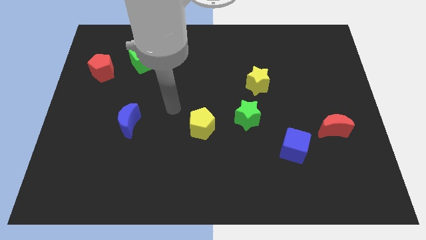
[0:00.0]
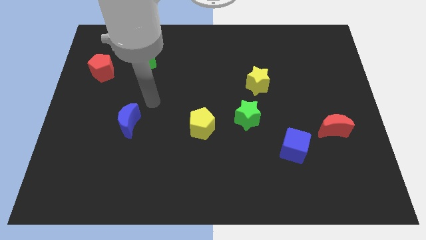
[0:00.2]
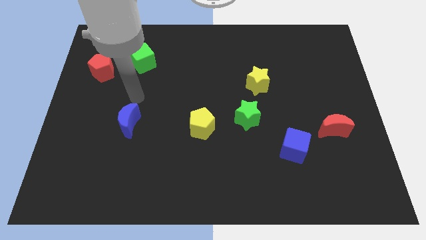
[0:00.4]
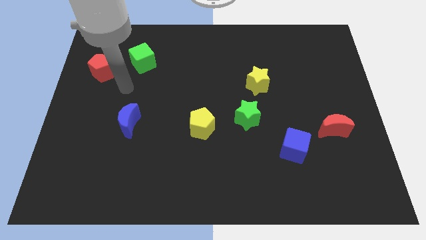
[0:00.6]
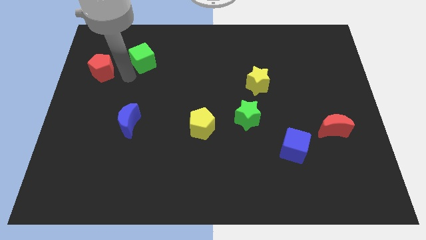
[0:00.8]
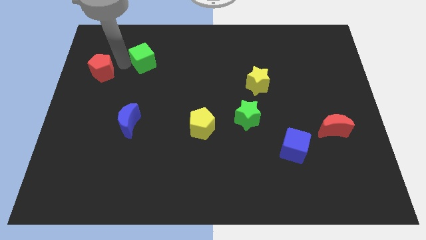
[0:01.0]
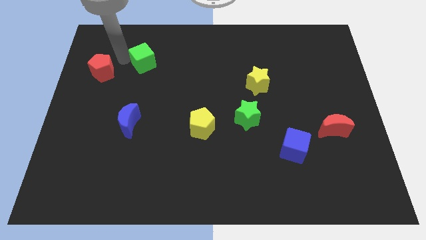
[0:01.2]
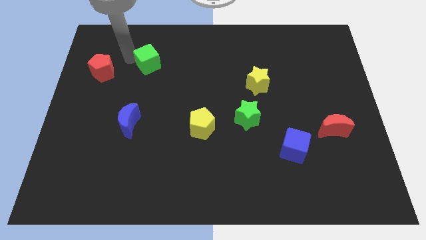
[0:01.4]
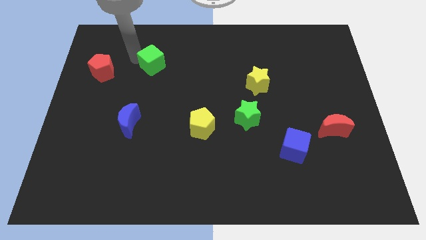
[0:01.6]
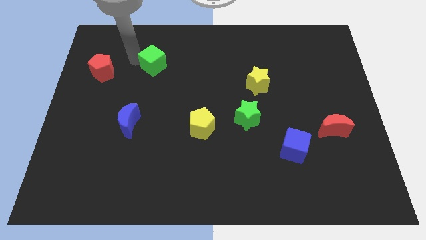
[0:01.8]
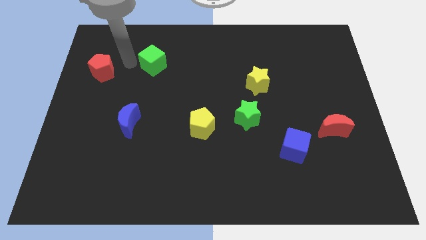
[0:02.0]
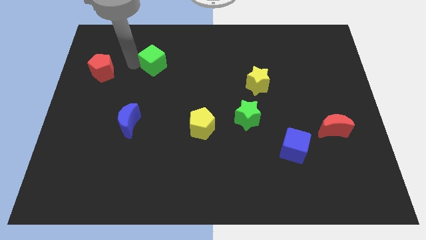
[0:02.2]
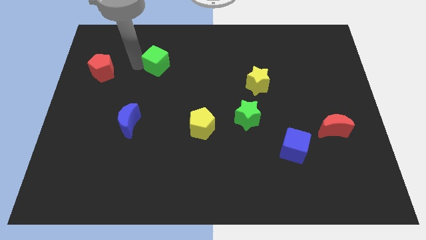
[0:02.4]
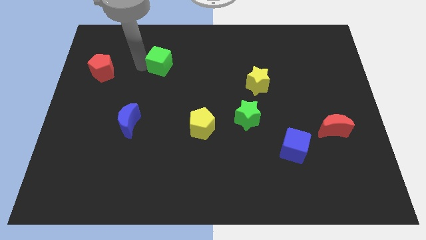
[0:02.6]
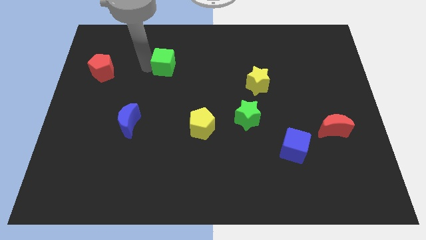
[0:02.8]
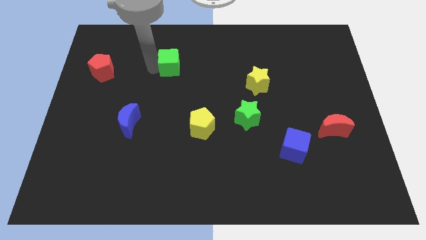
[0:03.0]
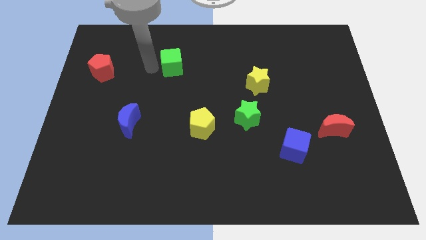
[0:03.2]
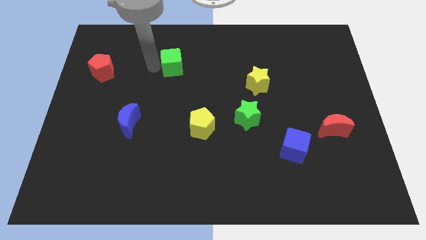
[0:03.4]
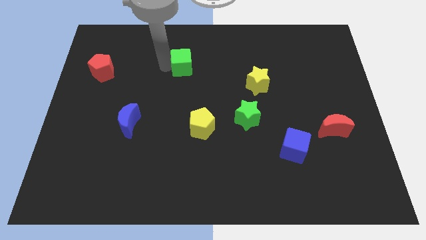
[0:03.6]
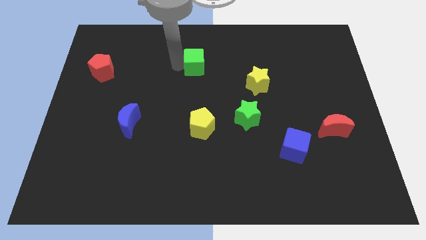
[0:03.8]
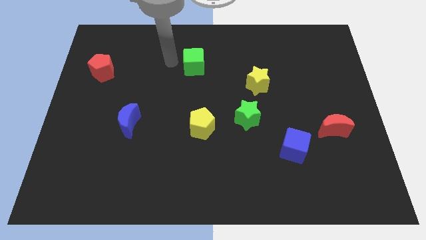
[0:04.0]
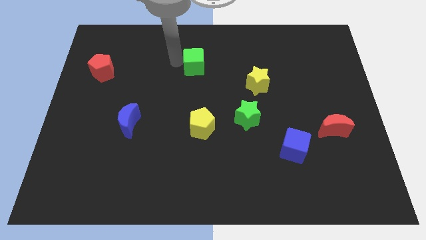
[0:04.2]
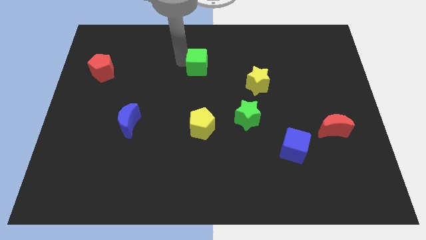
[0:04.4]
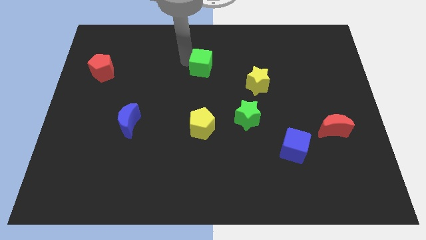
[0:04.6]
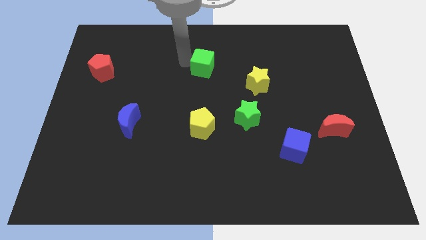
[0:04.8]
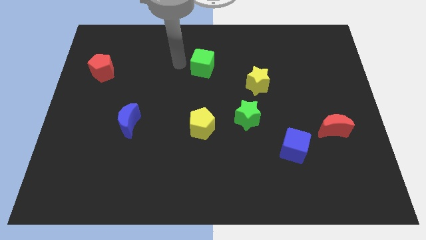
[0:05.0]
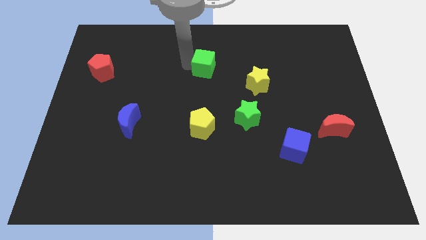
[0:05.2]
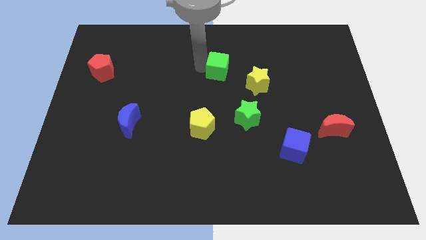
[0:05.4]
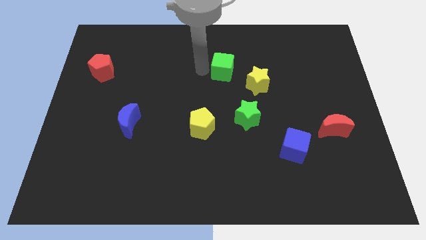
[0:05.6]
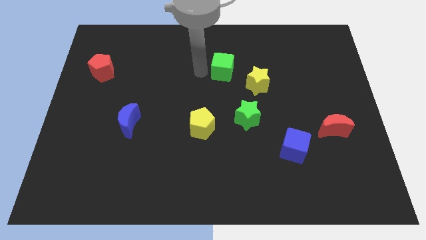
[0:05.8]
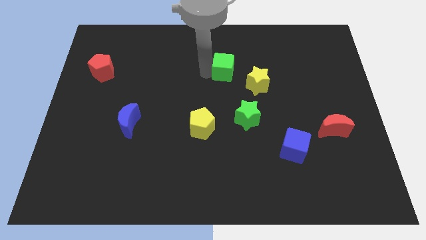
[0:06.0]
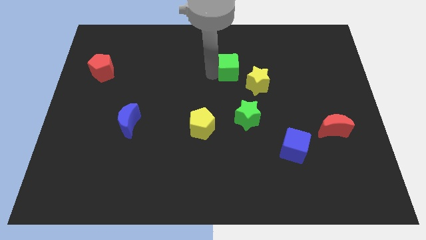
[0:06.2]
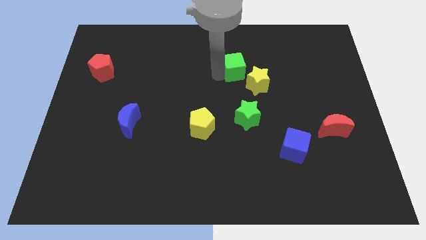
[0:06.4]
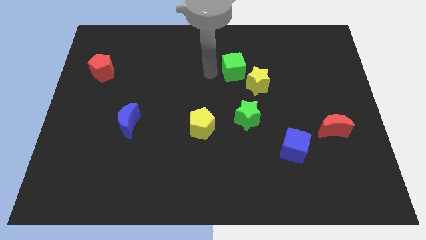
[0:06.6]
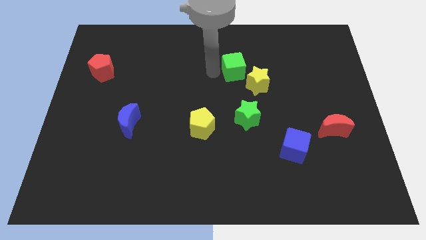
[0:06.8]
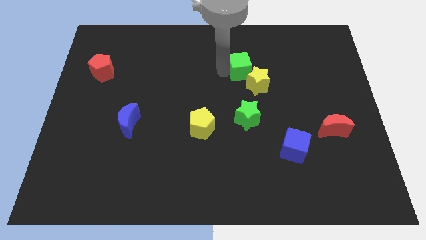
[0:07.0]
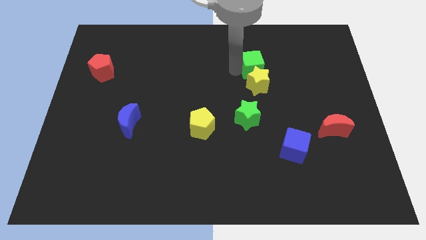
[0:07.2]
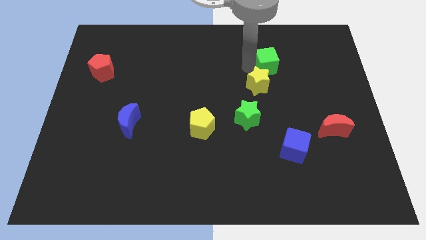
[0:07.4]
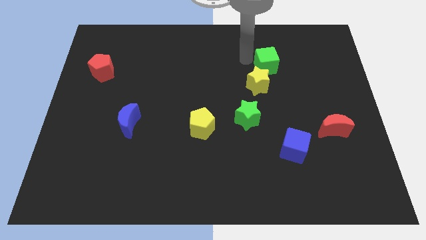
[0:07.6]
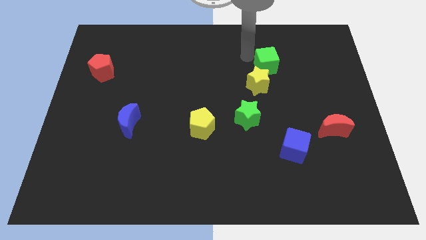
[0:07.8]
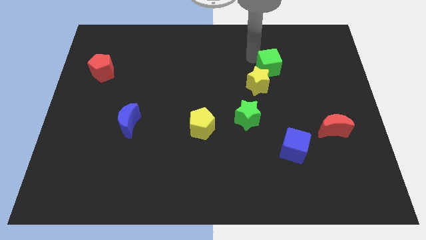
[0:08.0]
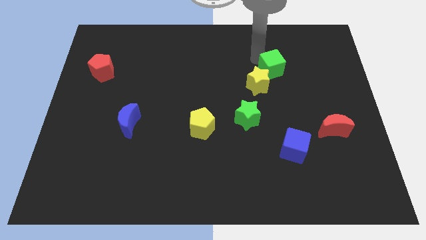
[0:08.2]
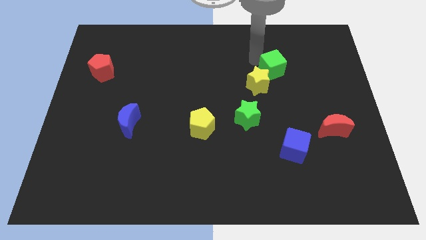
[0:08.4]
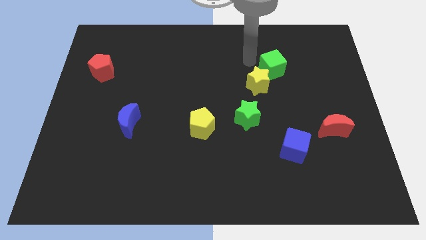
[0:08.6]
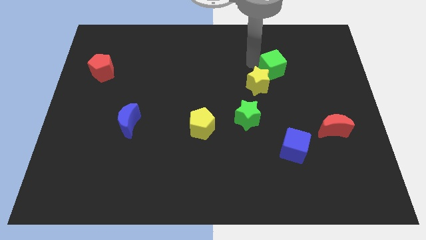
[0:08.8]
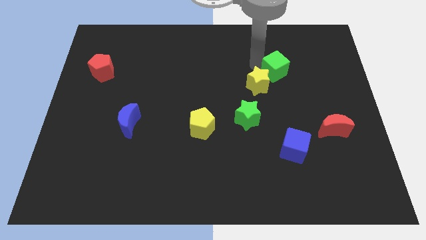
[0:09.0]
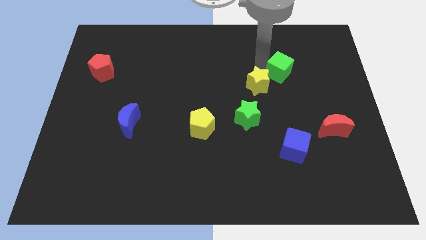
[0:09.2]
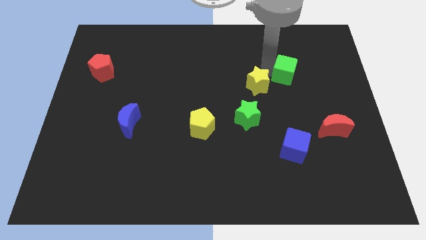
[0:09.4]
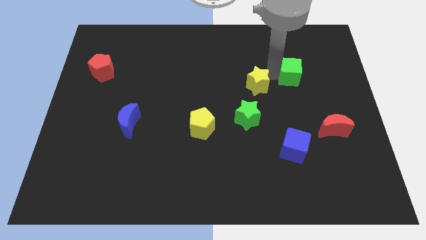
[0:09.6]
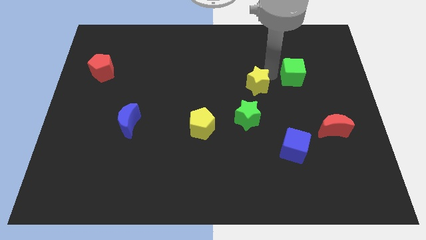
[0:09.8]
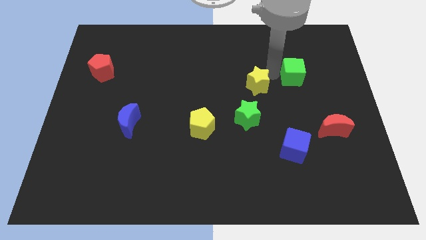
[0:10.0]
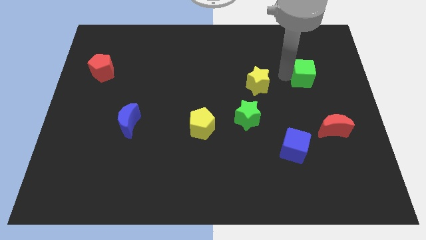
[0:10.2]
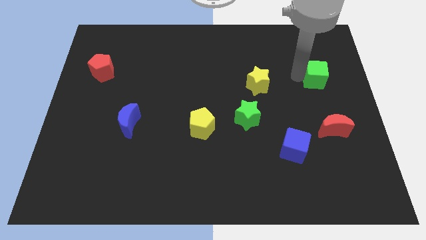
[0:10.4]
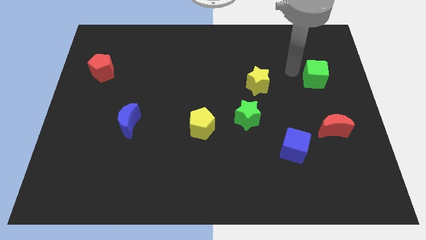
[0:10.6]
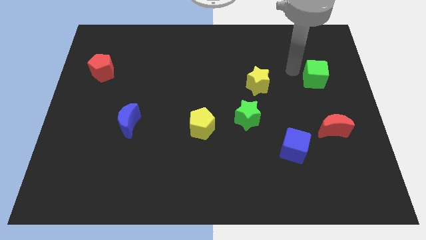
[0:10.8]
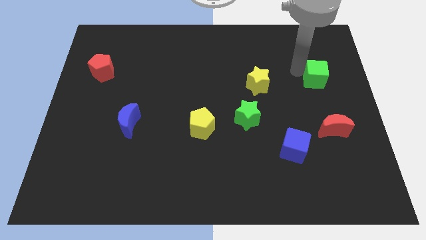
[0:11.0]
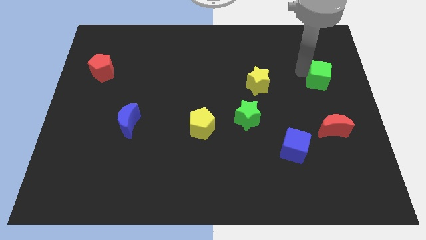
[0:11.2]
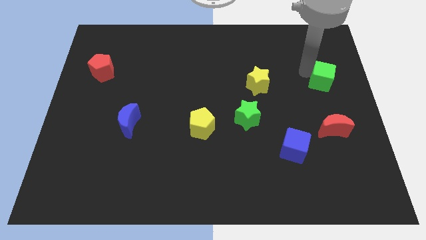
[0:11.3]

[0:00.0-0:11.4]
slide the green cube to the right side

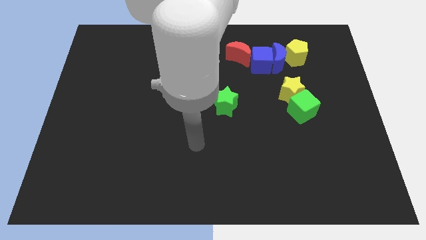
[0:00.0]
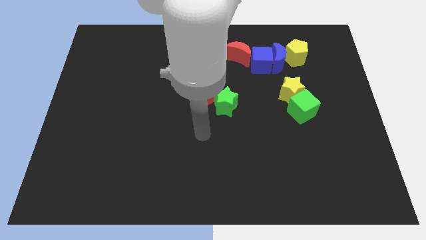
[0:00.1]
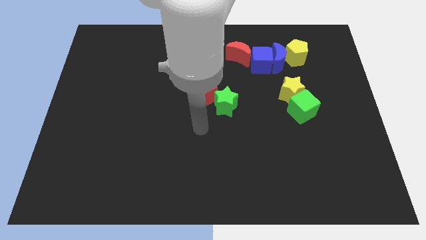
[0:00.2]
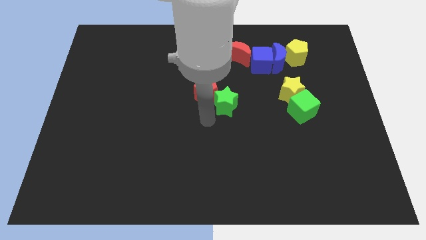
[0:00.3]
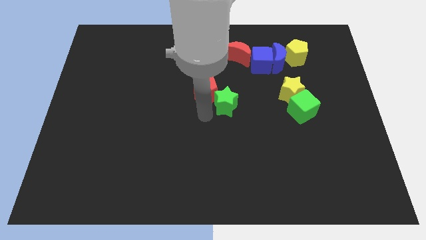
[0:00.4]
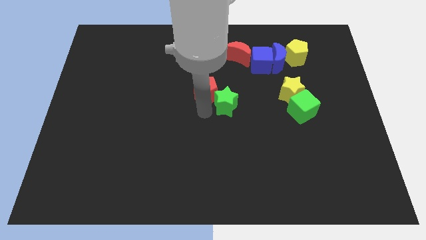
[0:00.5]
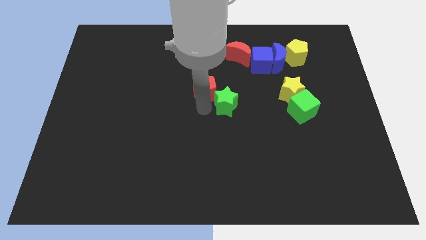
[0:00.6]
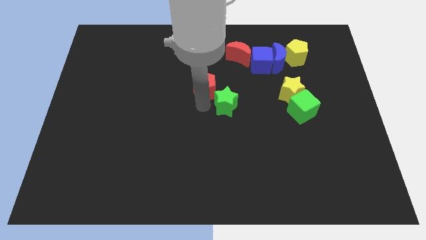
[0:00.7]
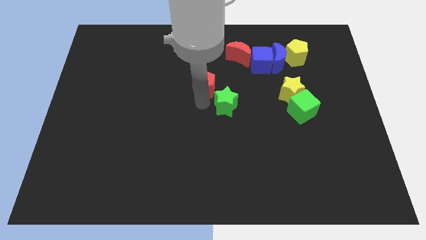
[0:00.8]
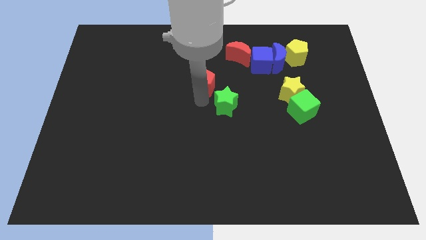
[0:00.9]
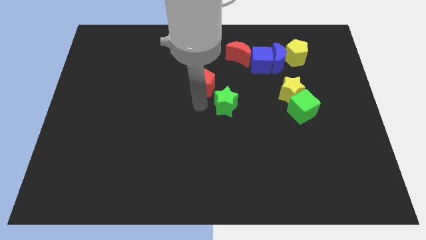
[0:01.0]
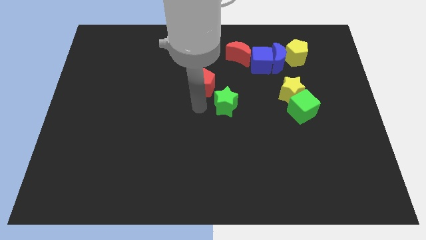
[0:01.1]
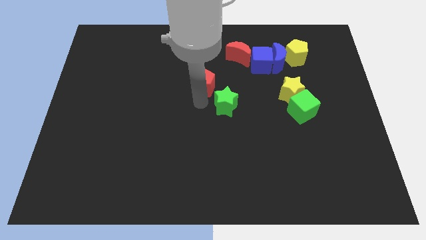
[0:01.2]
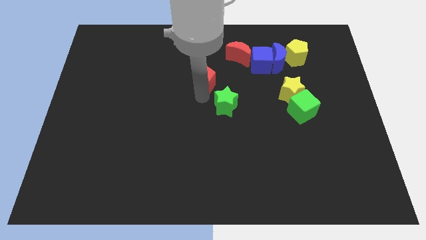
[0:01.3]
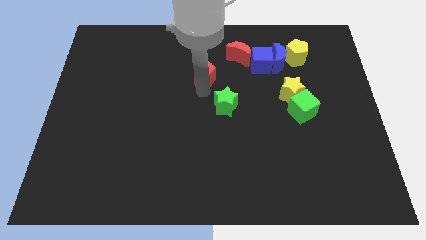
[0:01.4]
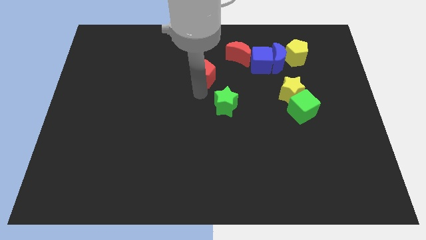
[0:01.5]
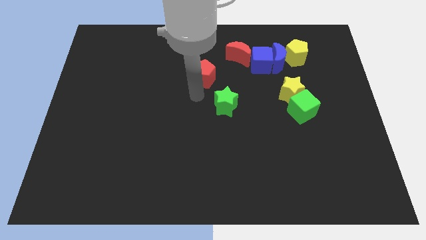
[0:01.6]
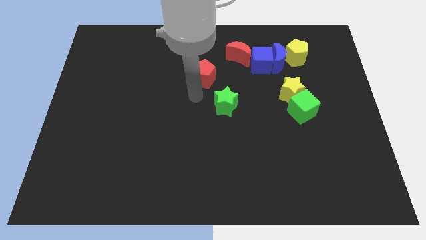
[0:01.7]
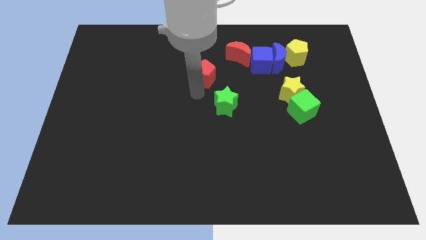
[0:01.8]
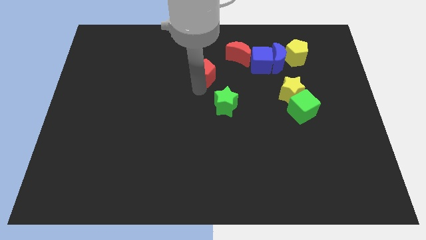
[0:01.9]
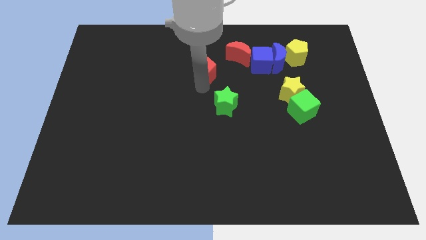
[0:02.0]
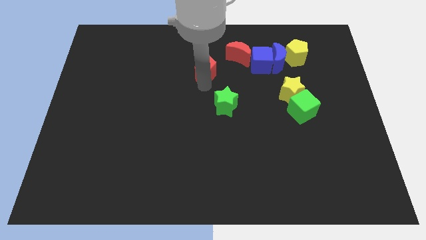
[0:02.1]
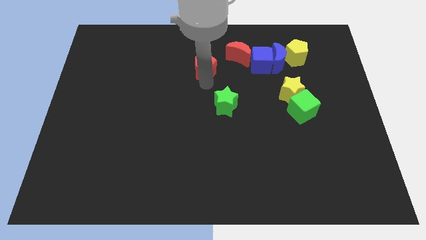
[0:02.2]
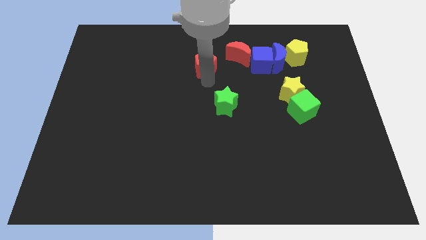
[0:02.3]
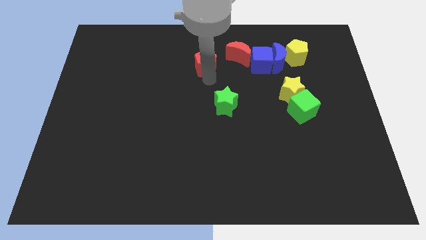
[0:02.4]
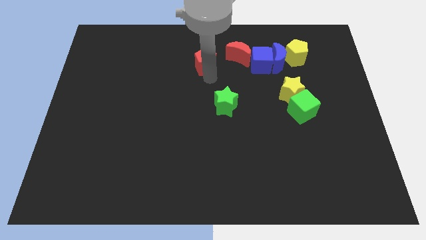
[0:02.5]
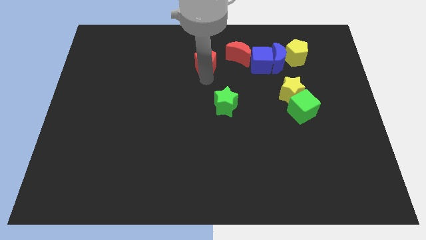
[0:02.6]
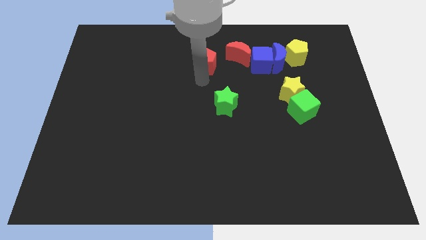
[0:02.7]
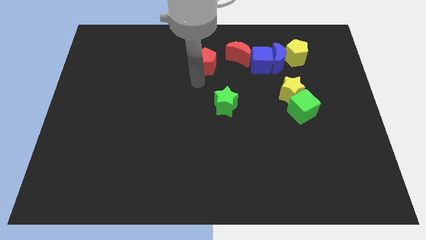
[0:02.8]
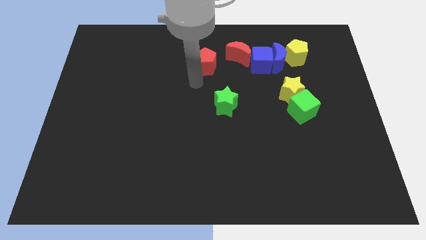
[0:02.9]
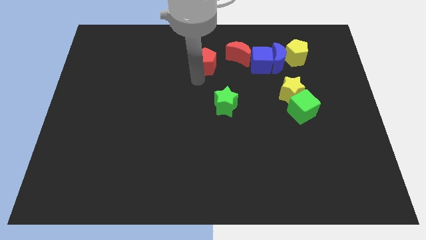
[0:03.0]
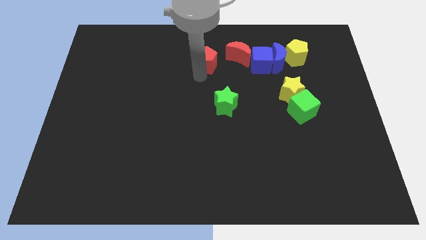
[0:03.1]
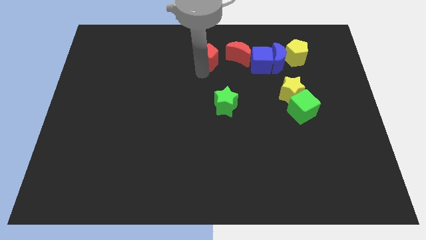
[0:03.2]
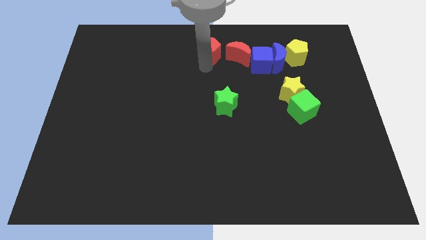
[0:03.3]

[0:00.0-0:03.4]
put the red pentagon to the top side
